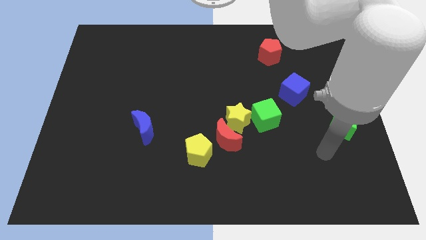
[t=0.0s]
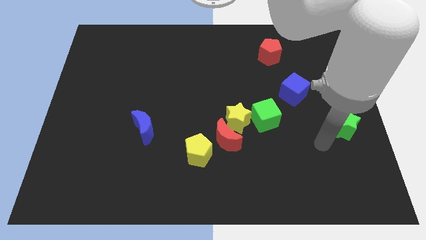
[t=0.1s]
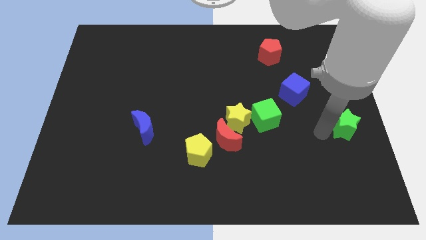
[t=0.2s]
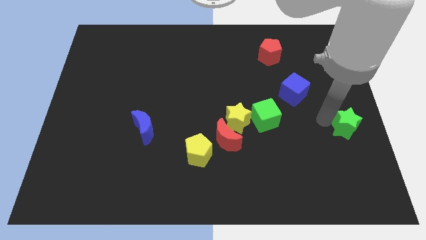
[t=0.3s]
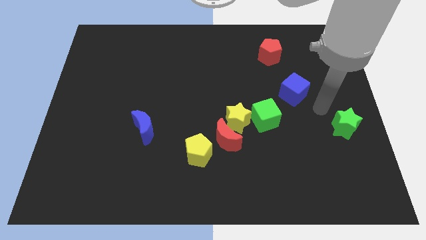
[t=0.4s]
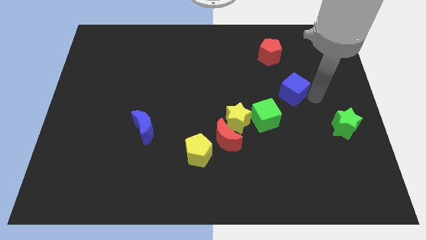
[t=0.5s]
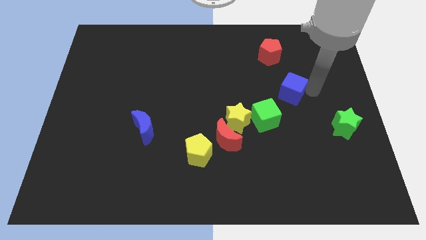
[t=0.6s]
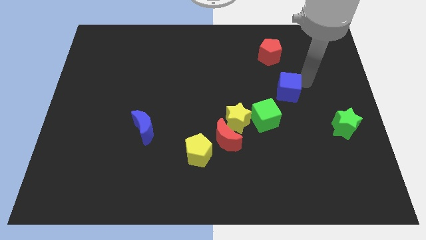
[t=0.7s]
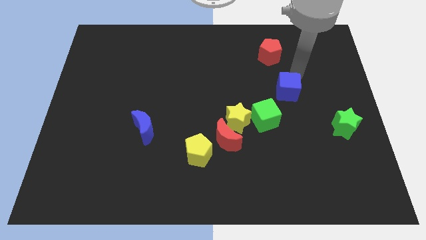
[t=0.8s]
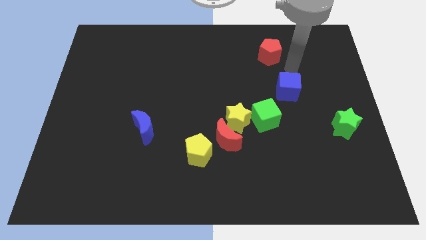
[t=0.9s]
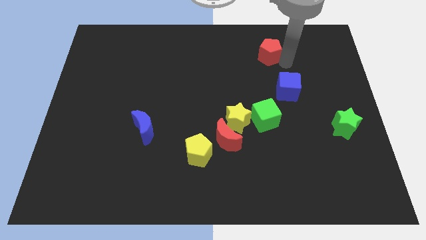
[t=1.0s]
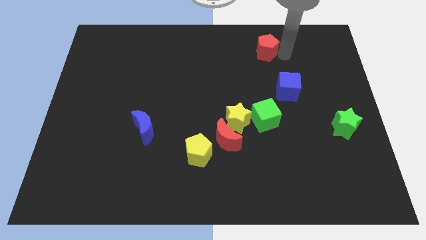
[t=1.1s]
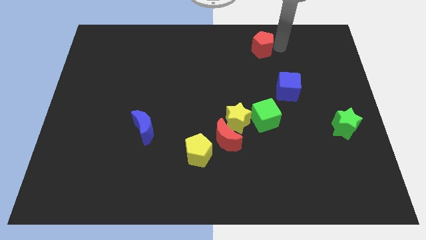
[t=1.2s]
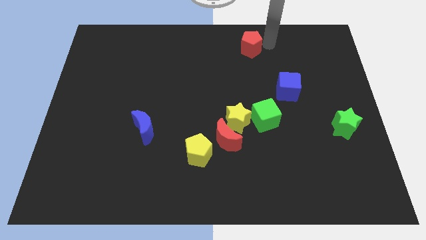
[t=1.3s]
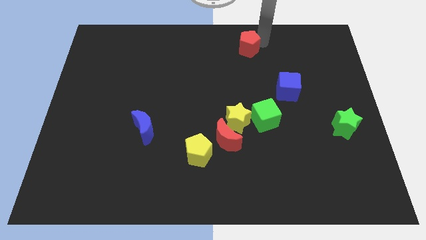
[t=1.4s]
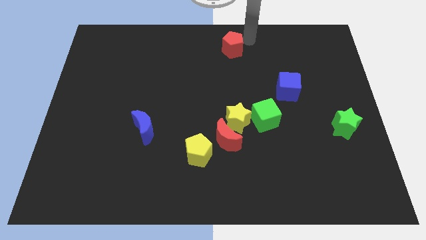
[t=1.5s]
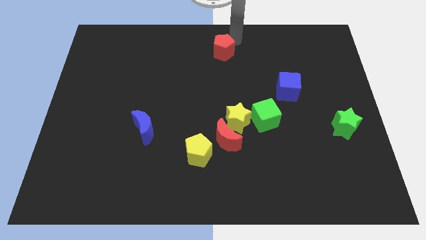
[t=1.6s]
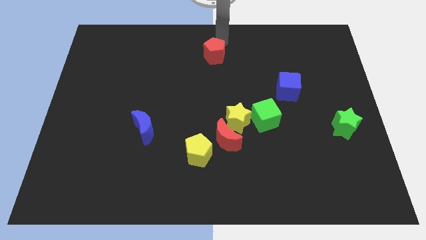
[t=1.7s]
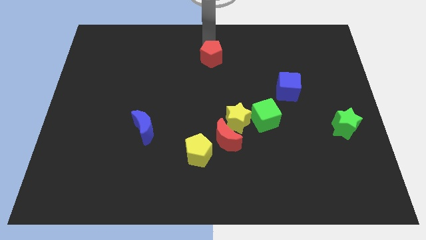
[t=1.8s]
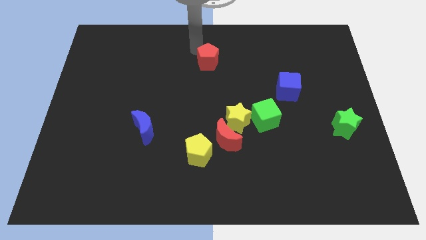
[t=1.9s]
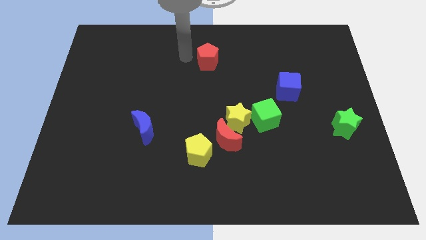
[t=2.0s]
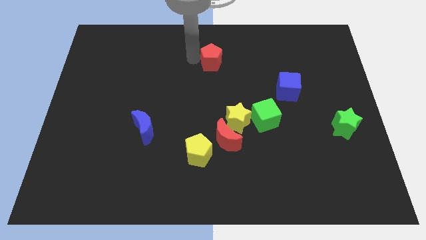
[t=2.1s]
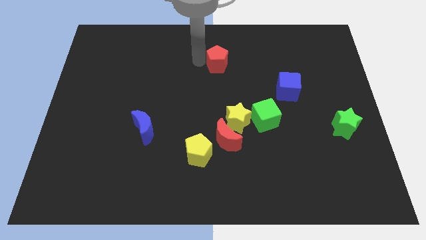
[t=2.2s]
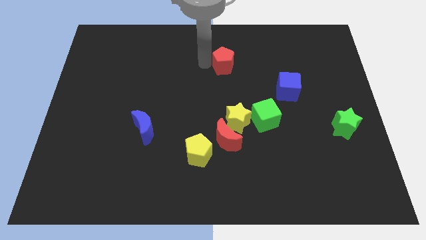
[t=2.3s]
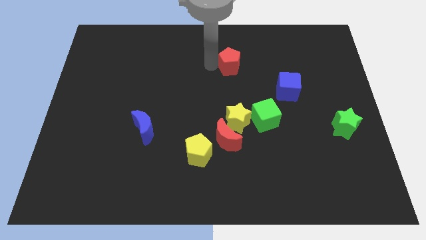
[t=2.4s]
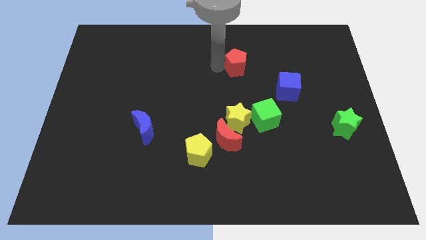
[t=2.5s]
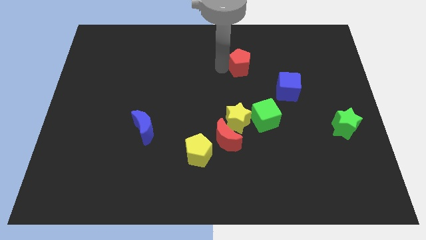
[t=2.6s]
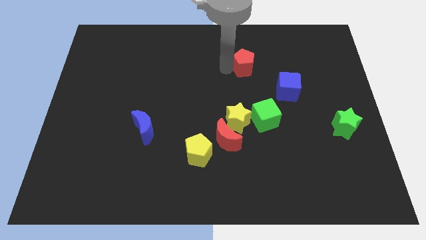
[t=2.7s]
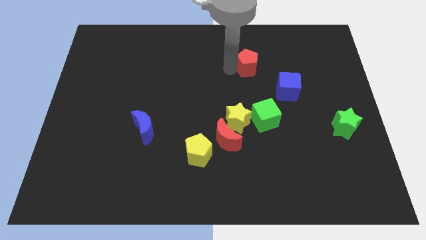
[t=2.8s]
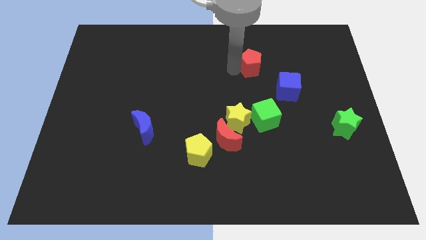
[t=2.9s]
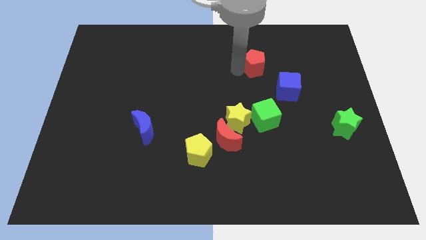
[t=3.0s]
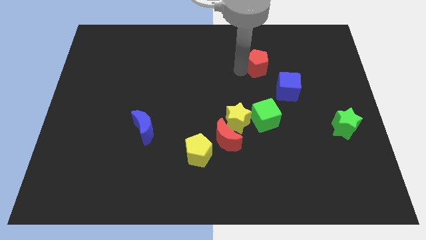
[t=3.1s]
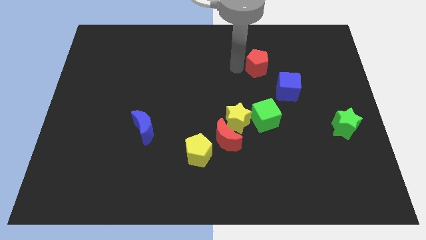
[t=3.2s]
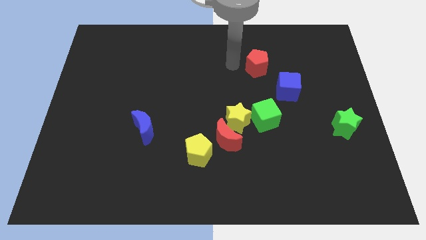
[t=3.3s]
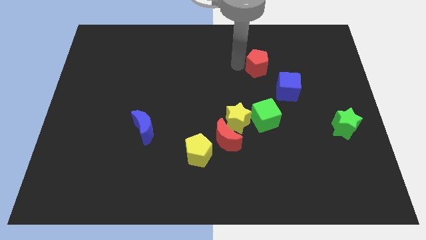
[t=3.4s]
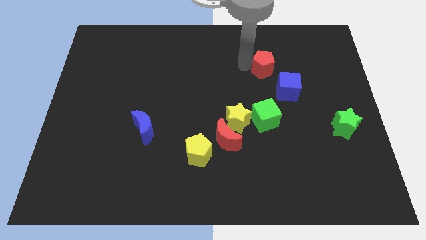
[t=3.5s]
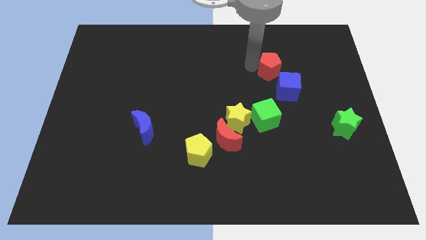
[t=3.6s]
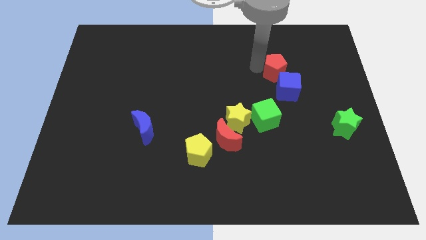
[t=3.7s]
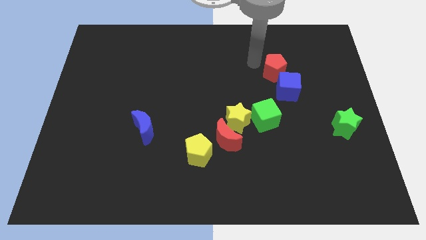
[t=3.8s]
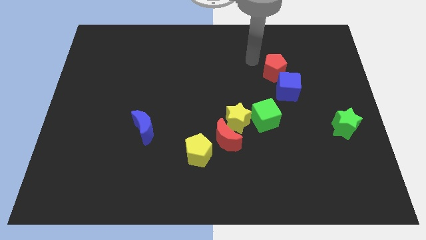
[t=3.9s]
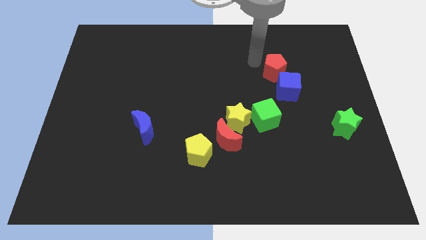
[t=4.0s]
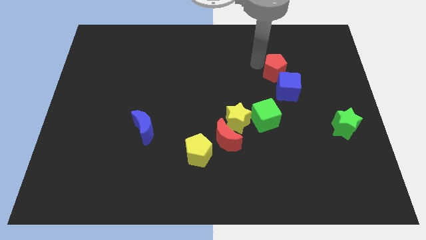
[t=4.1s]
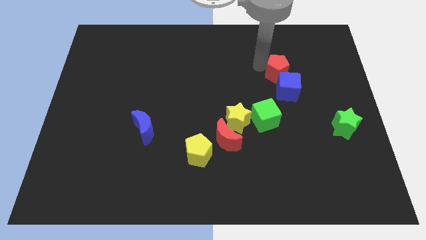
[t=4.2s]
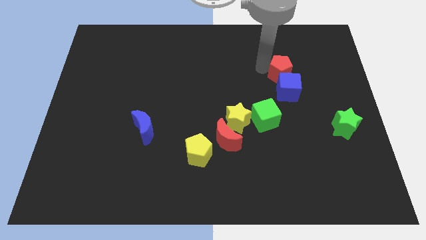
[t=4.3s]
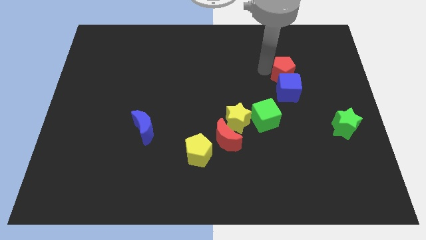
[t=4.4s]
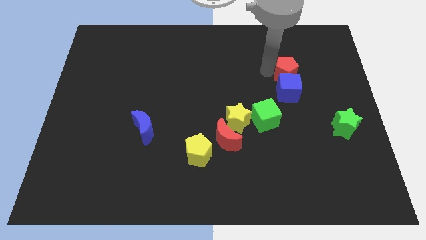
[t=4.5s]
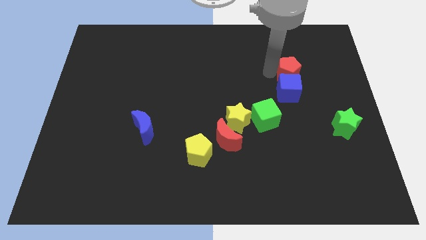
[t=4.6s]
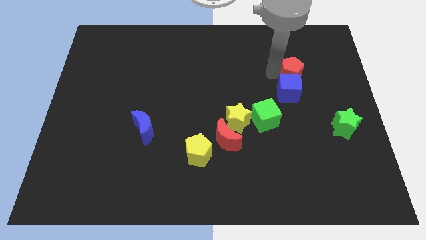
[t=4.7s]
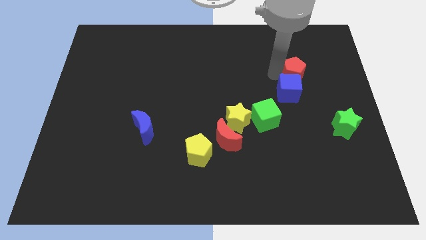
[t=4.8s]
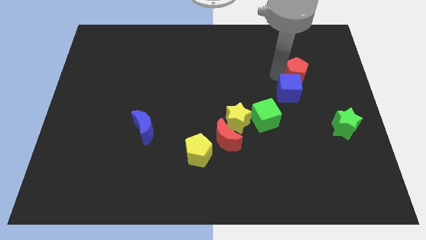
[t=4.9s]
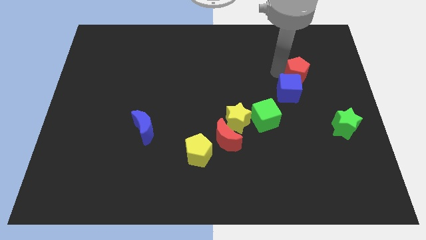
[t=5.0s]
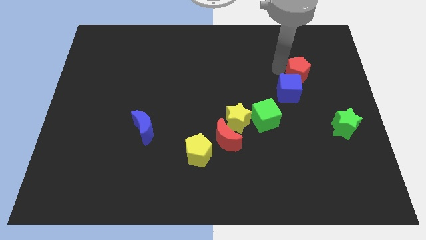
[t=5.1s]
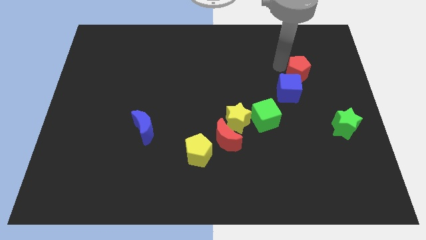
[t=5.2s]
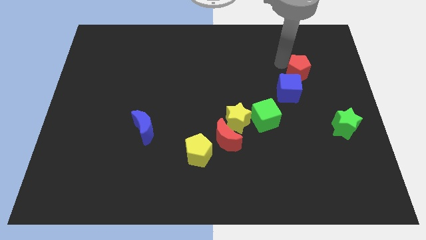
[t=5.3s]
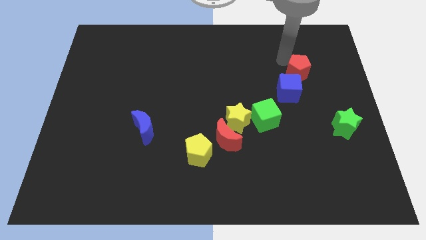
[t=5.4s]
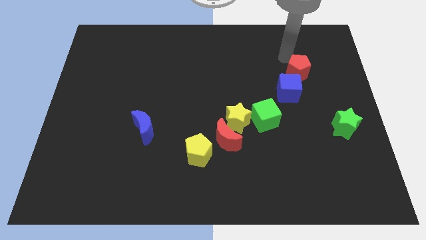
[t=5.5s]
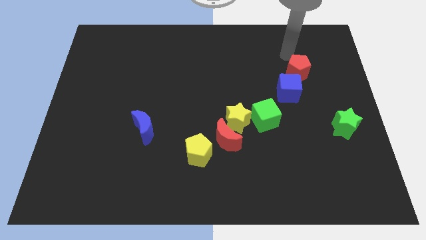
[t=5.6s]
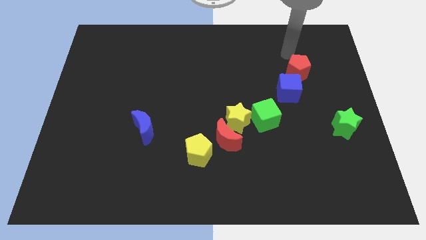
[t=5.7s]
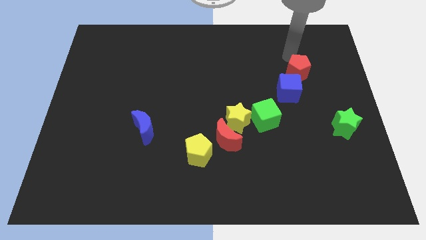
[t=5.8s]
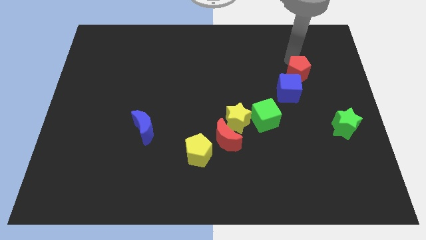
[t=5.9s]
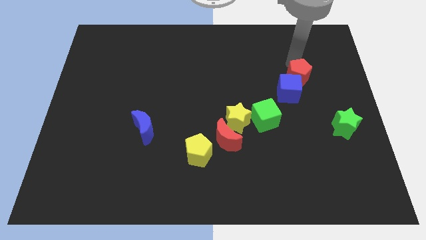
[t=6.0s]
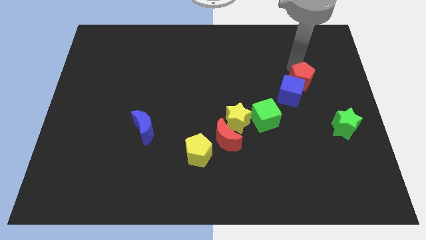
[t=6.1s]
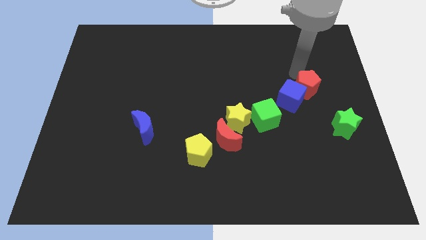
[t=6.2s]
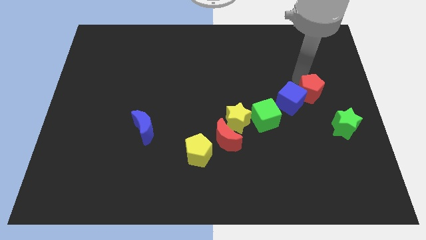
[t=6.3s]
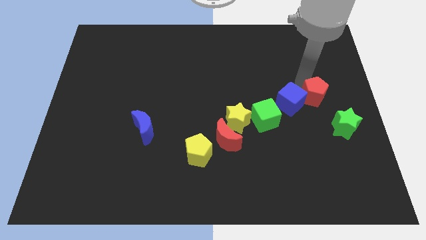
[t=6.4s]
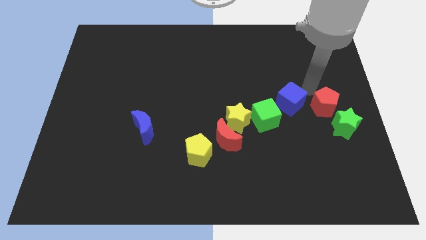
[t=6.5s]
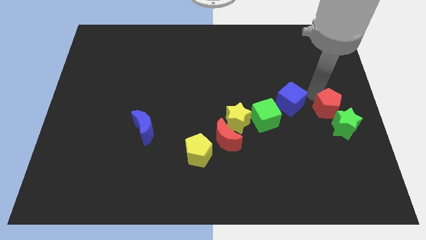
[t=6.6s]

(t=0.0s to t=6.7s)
push the red pentagon to the green star
